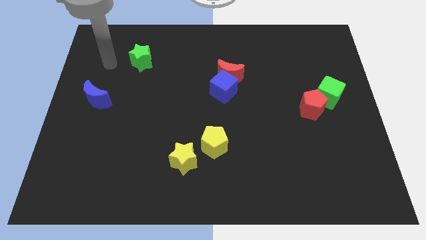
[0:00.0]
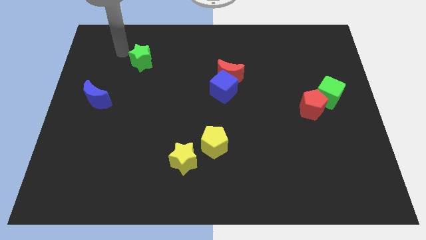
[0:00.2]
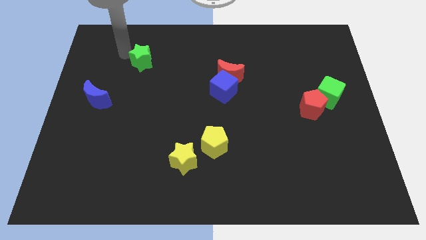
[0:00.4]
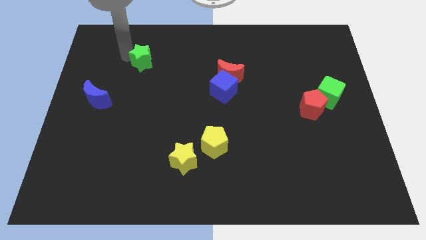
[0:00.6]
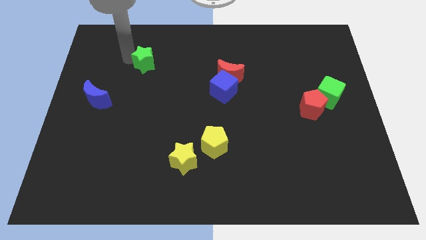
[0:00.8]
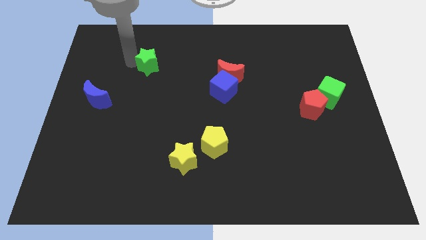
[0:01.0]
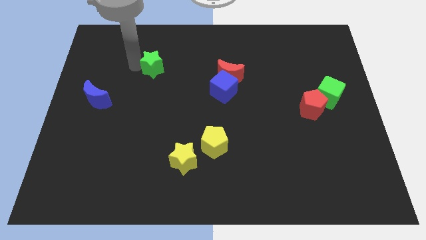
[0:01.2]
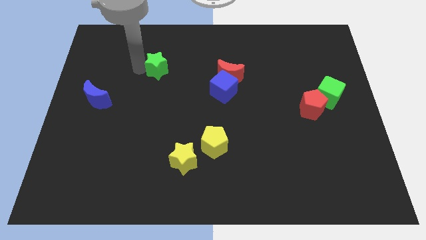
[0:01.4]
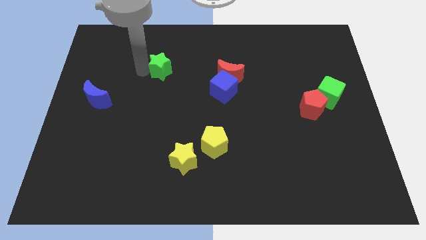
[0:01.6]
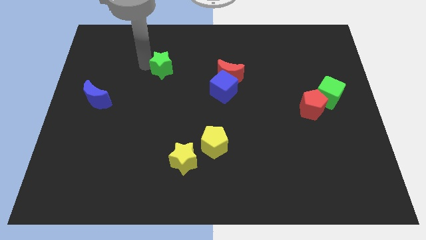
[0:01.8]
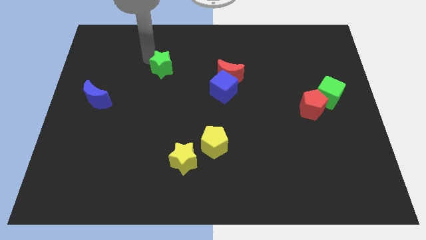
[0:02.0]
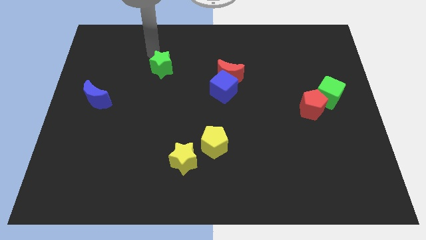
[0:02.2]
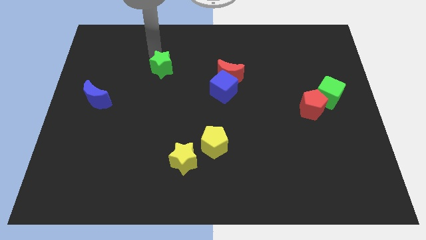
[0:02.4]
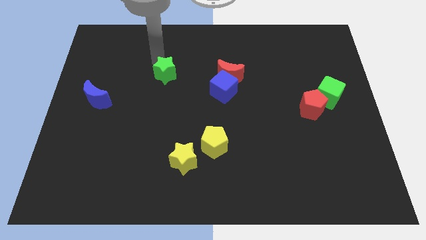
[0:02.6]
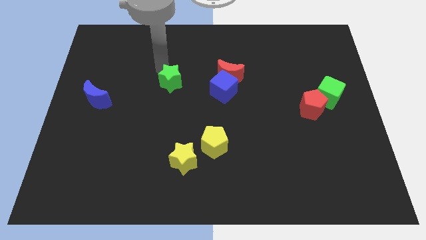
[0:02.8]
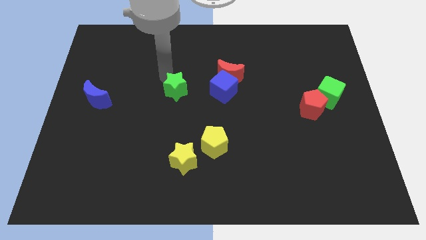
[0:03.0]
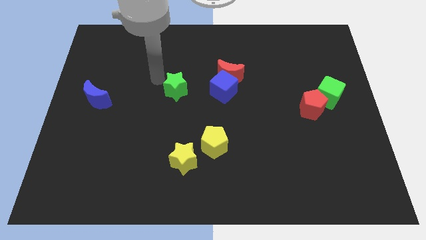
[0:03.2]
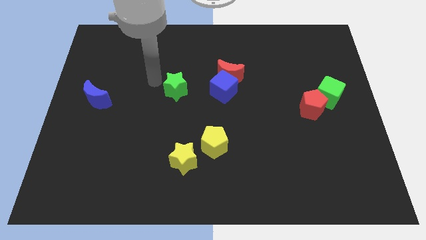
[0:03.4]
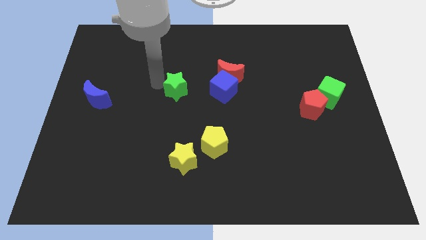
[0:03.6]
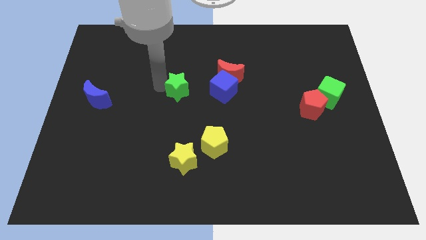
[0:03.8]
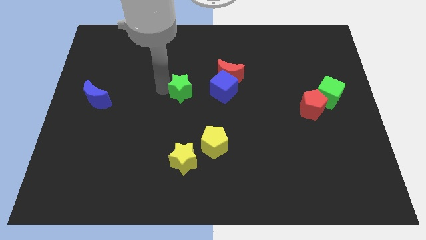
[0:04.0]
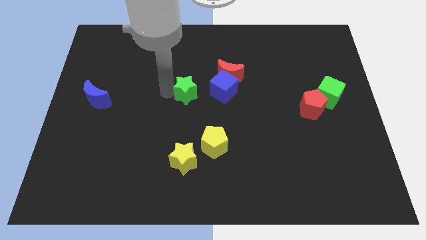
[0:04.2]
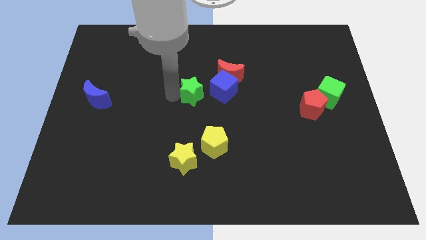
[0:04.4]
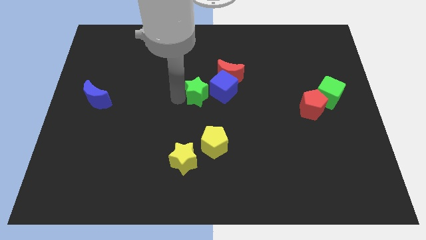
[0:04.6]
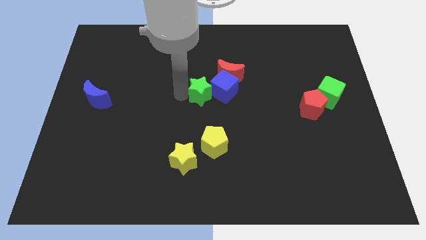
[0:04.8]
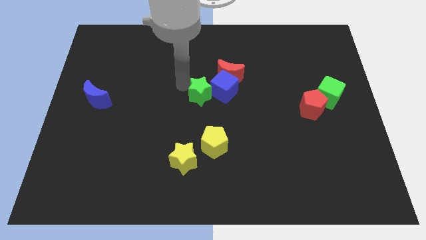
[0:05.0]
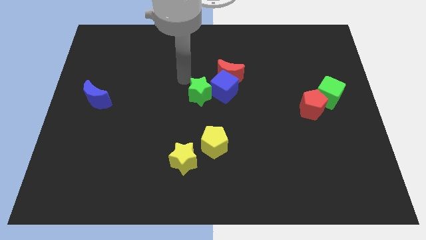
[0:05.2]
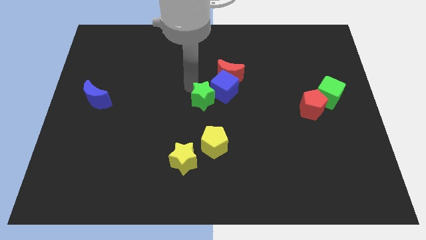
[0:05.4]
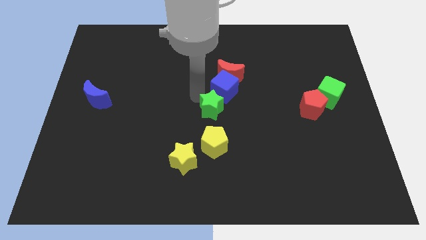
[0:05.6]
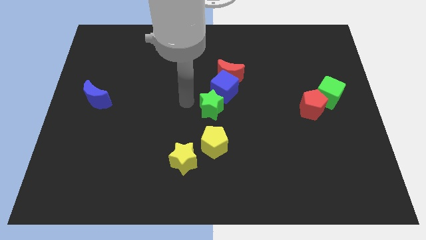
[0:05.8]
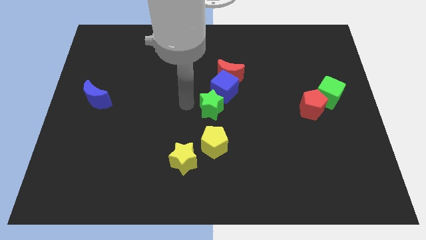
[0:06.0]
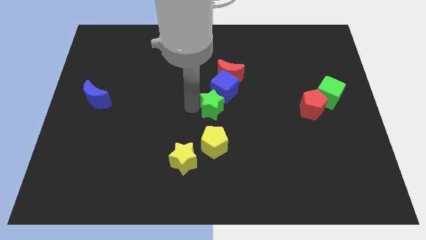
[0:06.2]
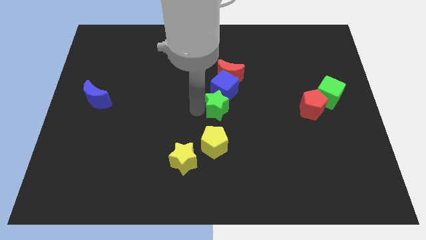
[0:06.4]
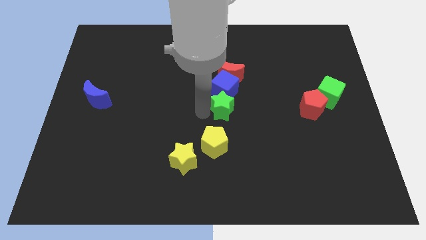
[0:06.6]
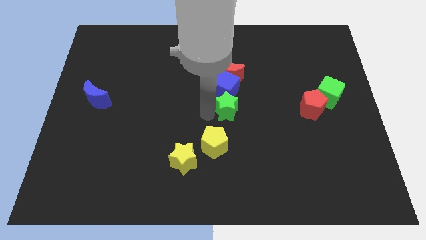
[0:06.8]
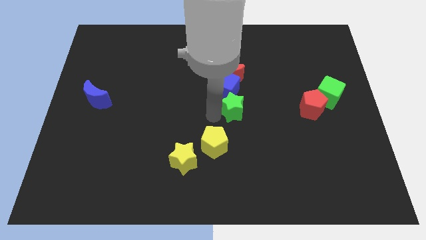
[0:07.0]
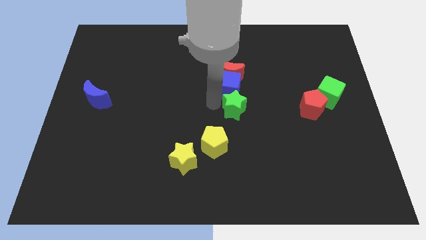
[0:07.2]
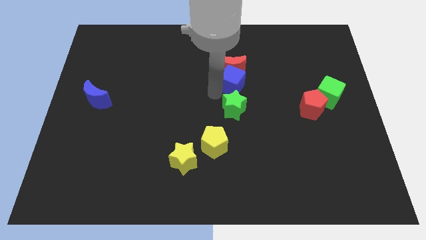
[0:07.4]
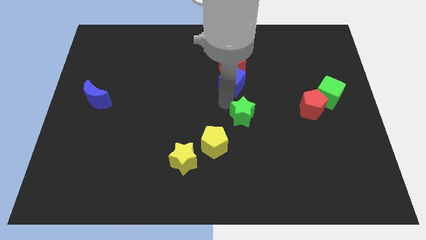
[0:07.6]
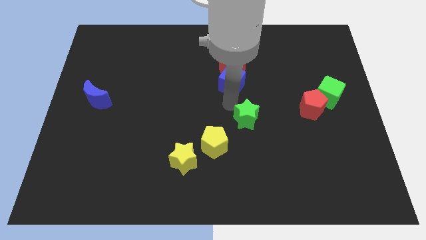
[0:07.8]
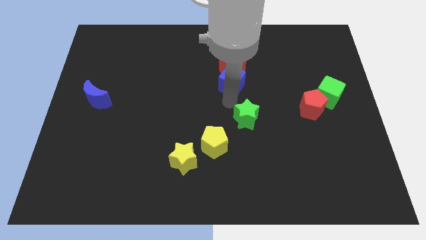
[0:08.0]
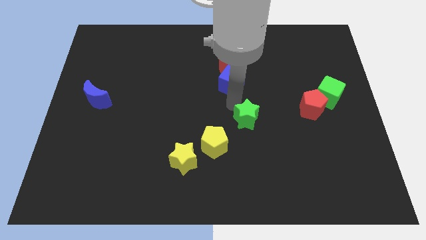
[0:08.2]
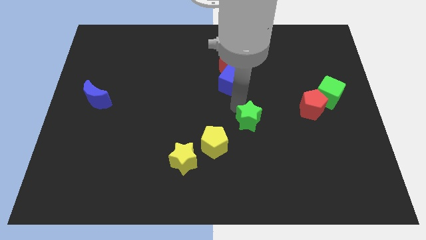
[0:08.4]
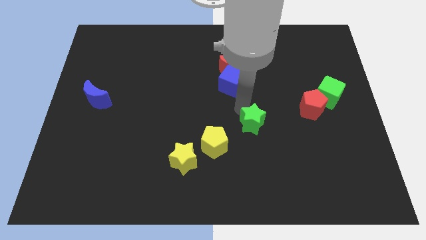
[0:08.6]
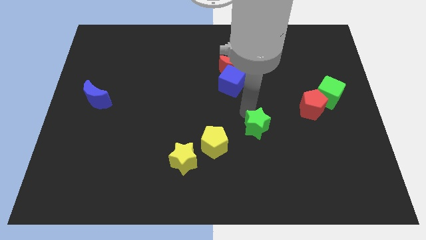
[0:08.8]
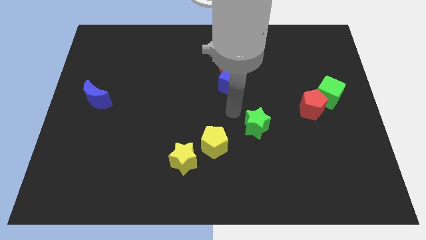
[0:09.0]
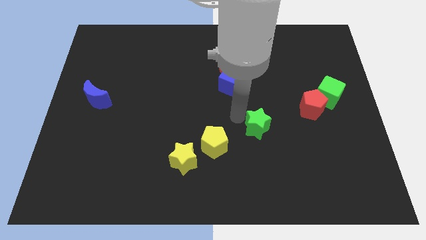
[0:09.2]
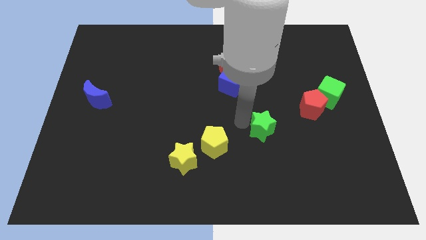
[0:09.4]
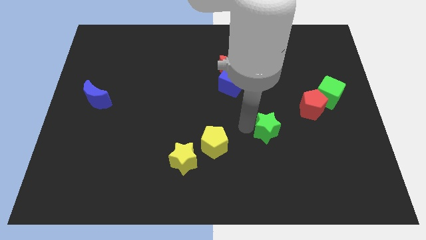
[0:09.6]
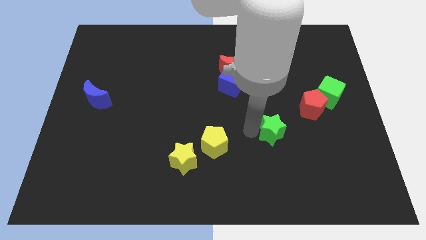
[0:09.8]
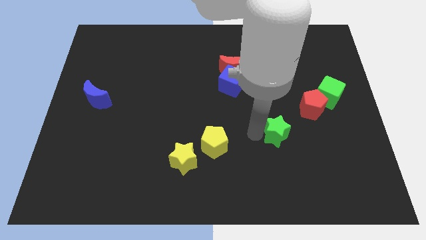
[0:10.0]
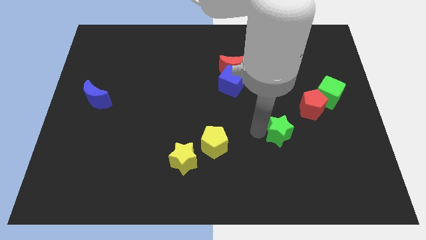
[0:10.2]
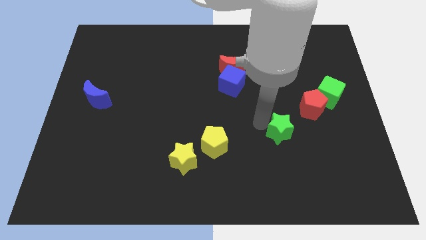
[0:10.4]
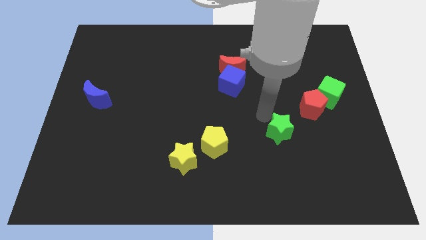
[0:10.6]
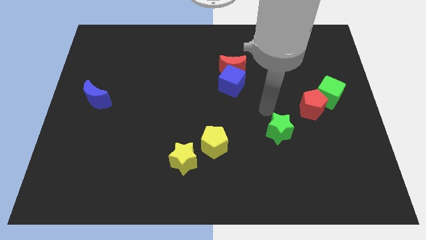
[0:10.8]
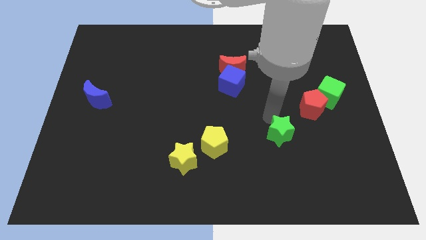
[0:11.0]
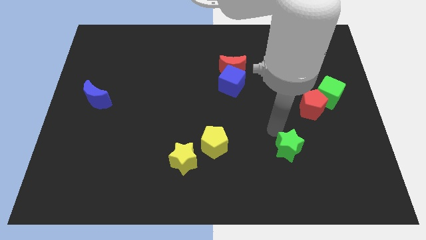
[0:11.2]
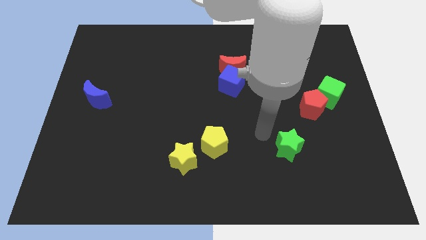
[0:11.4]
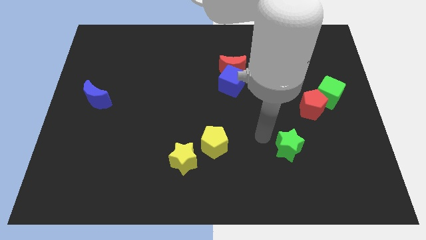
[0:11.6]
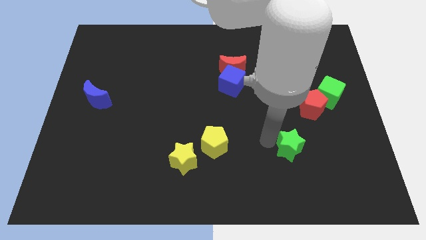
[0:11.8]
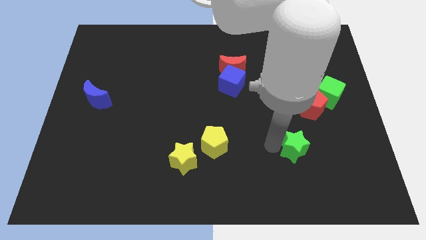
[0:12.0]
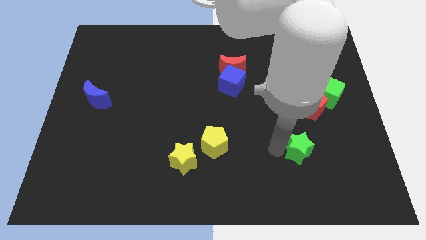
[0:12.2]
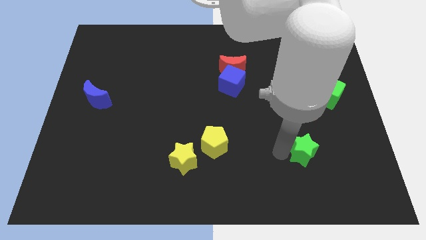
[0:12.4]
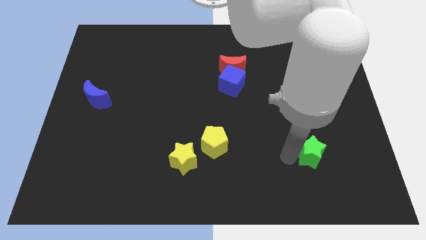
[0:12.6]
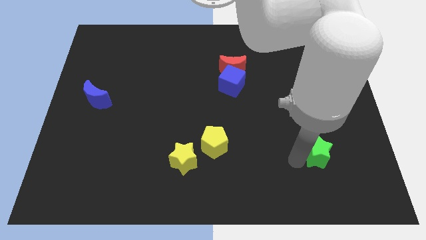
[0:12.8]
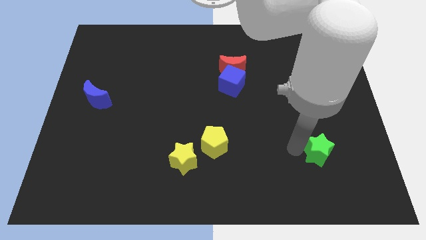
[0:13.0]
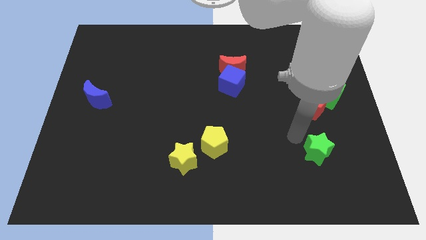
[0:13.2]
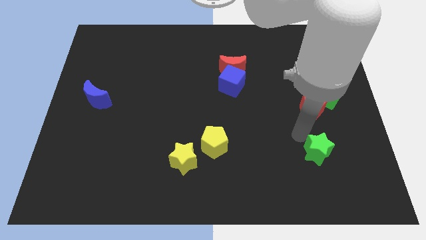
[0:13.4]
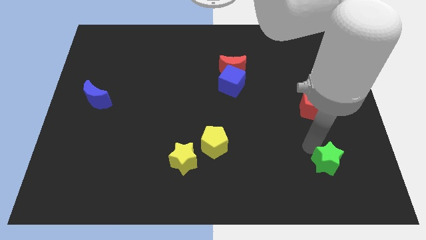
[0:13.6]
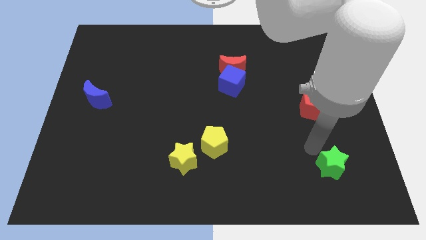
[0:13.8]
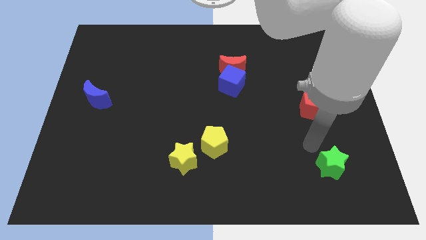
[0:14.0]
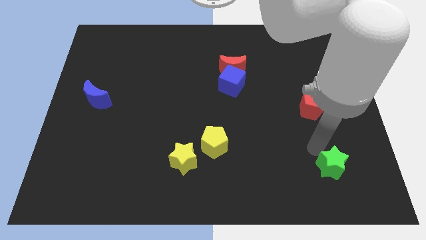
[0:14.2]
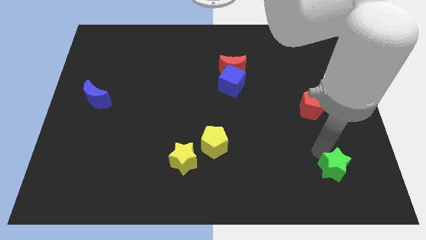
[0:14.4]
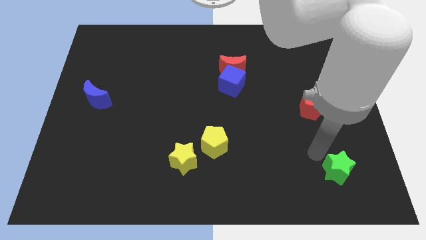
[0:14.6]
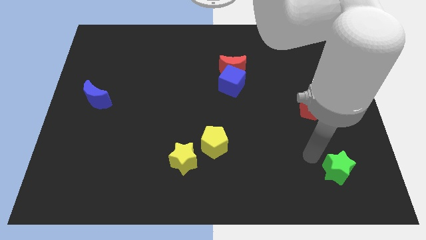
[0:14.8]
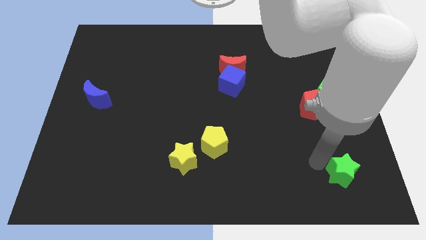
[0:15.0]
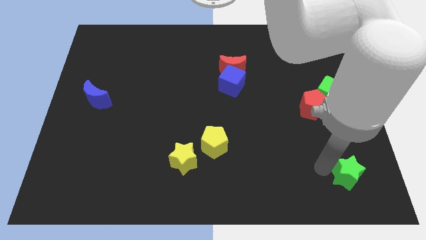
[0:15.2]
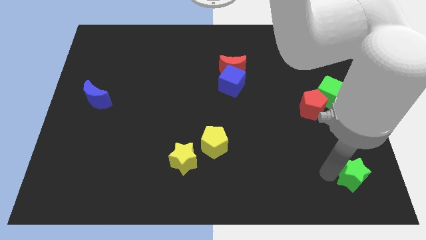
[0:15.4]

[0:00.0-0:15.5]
slide the green star to the lower right corner
